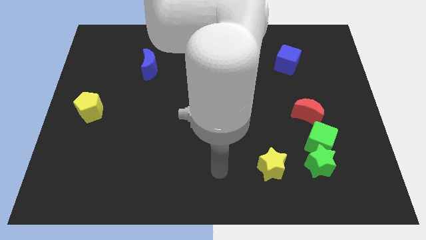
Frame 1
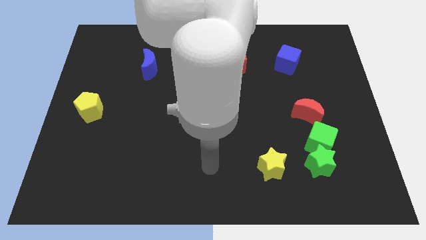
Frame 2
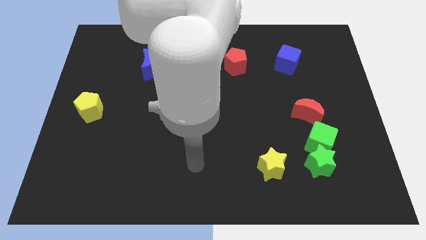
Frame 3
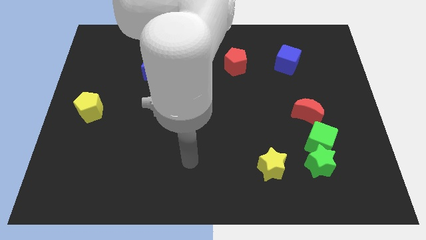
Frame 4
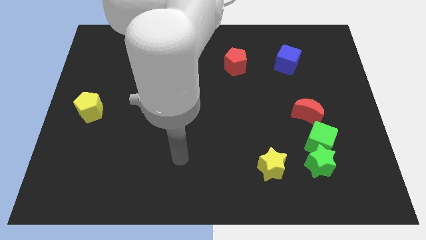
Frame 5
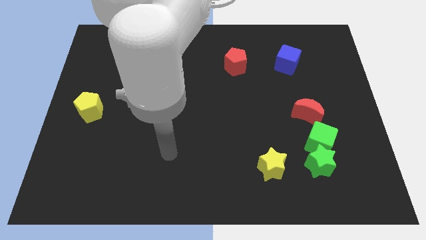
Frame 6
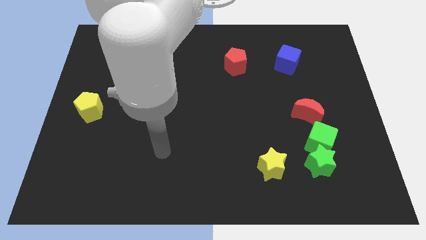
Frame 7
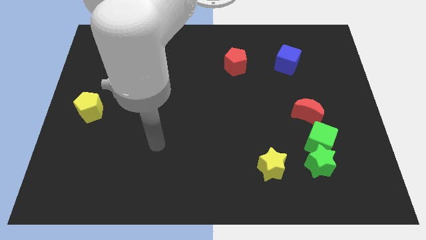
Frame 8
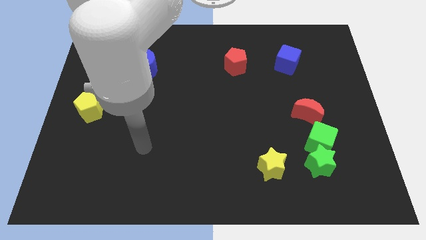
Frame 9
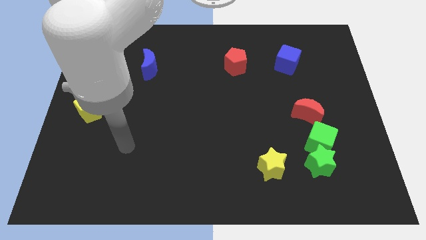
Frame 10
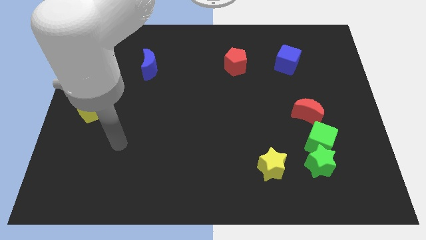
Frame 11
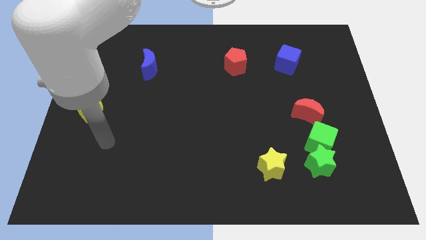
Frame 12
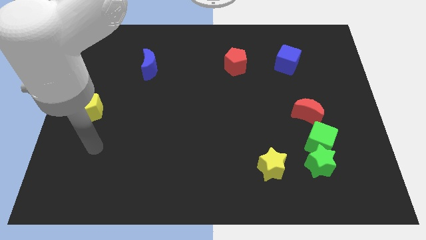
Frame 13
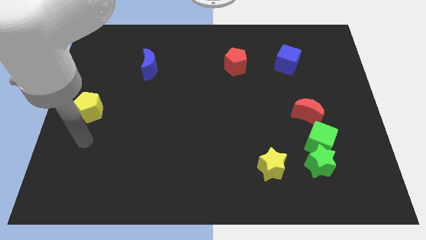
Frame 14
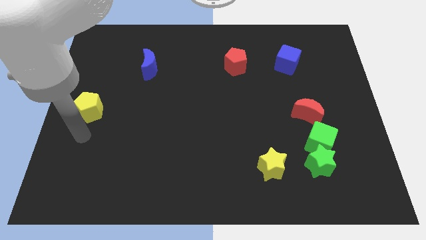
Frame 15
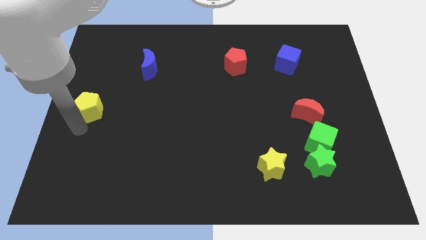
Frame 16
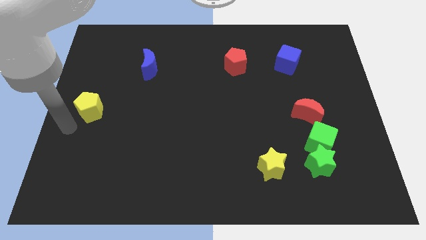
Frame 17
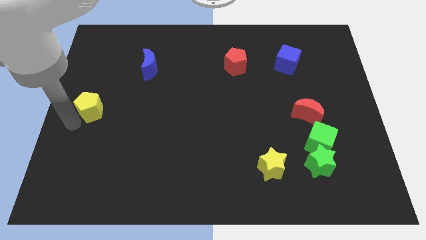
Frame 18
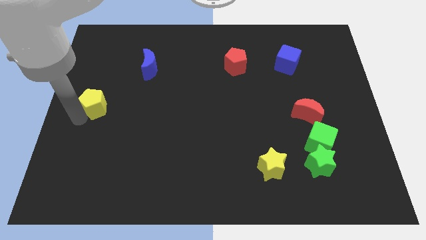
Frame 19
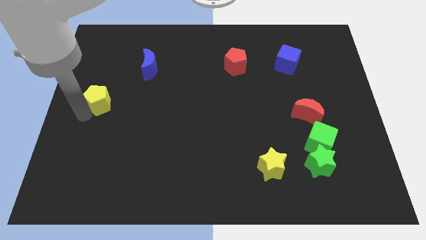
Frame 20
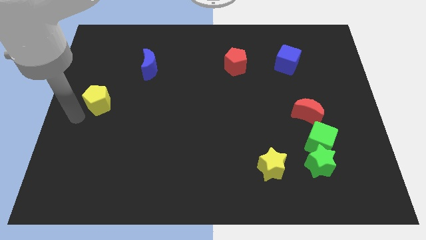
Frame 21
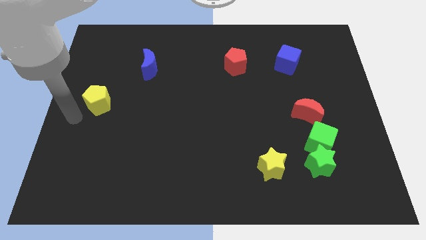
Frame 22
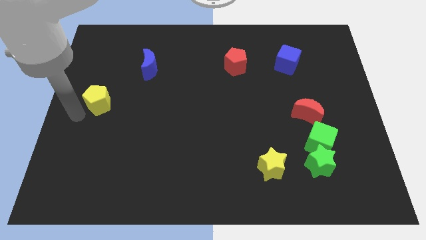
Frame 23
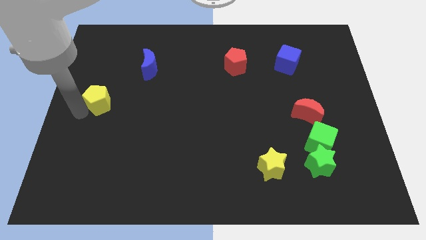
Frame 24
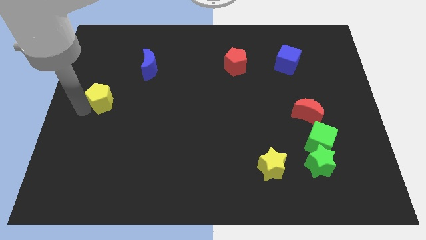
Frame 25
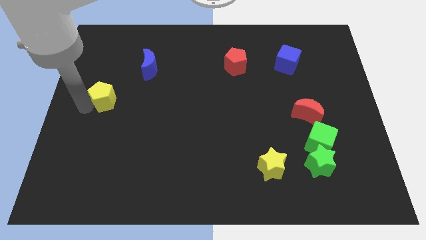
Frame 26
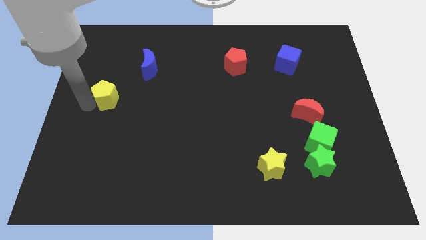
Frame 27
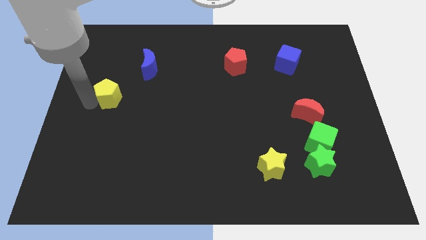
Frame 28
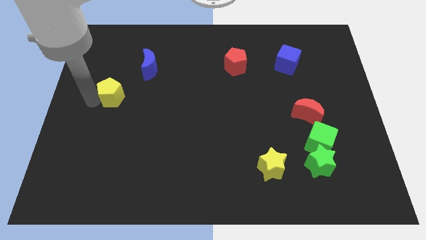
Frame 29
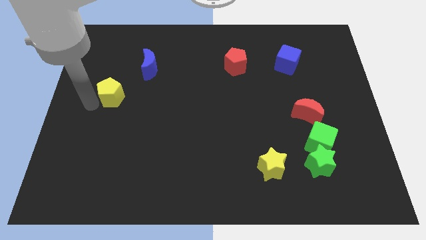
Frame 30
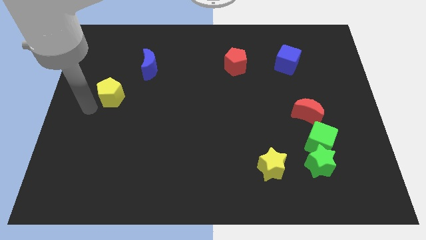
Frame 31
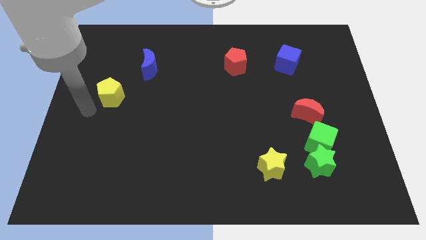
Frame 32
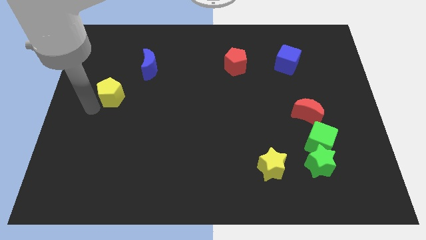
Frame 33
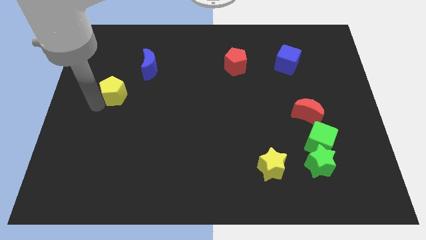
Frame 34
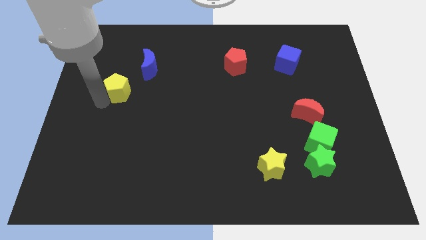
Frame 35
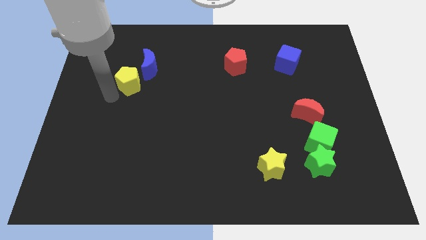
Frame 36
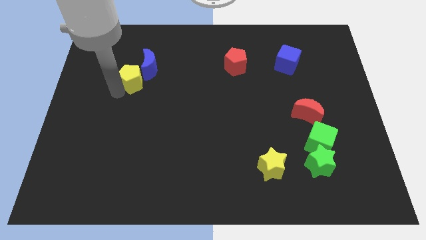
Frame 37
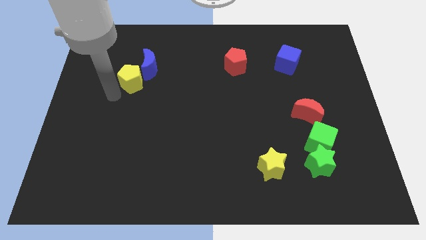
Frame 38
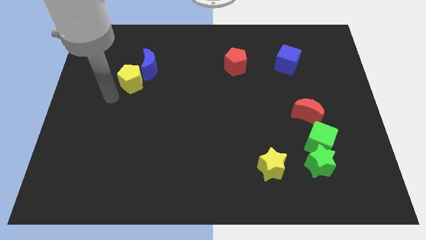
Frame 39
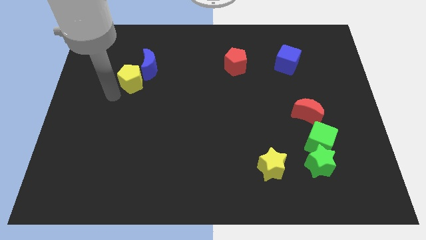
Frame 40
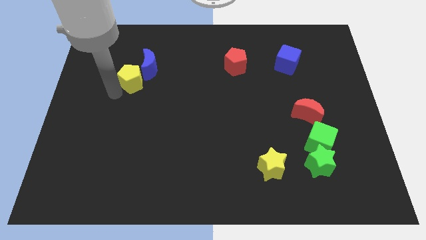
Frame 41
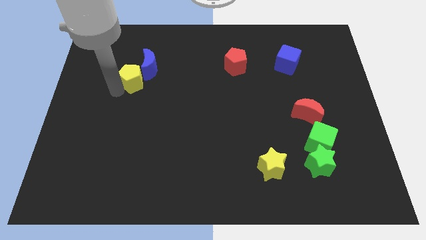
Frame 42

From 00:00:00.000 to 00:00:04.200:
put the yellow pentagon to the blue moon

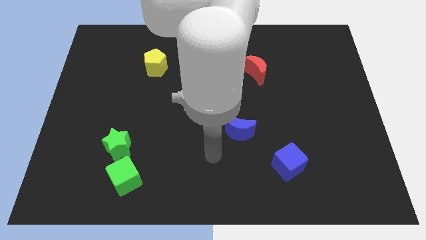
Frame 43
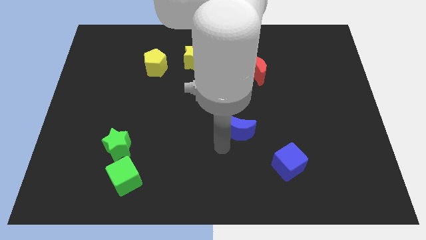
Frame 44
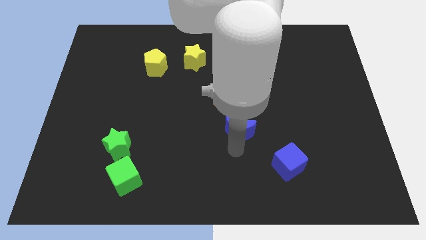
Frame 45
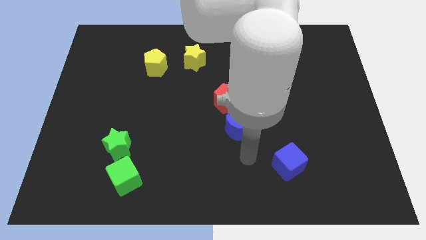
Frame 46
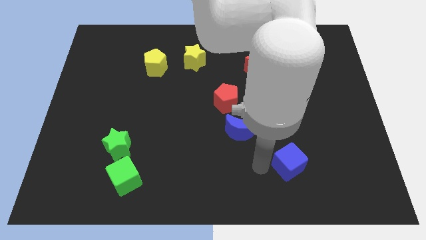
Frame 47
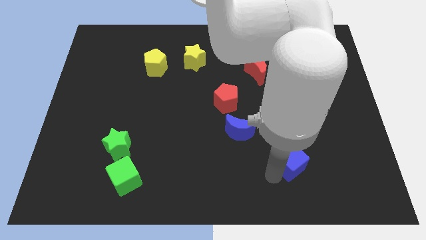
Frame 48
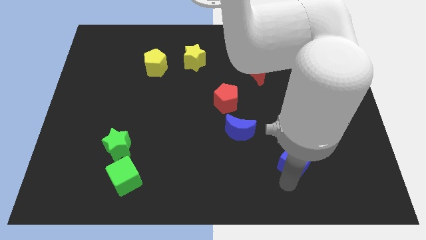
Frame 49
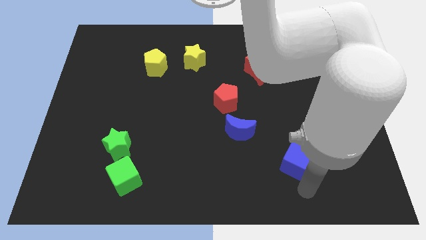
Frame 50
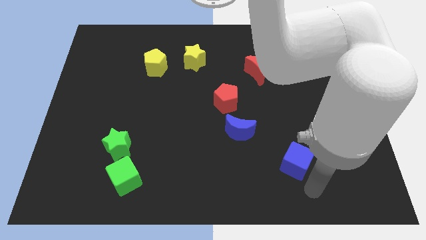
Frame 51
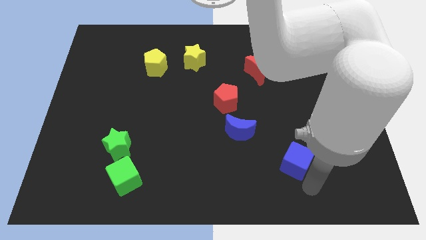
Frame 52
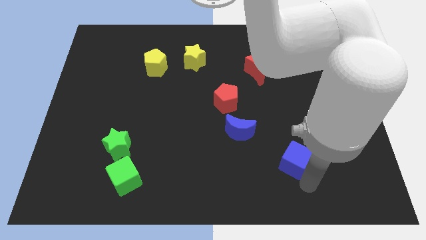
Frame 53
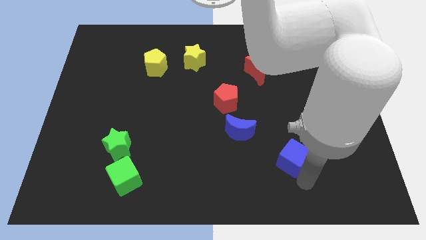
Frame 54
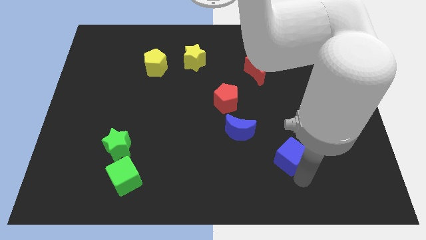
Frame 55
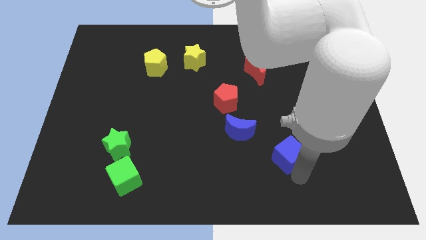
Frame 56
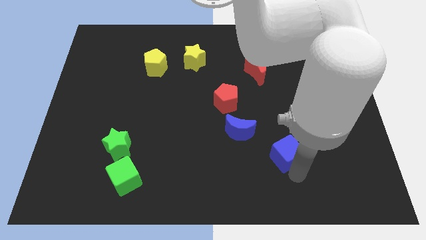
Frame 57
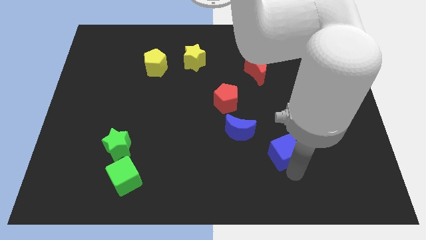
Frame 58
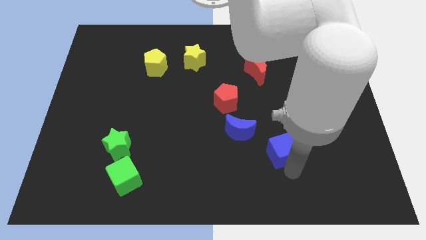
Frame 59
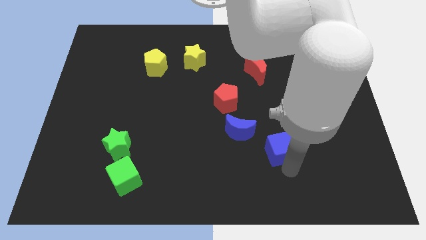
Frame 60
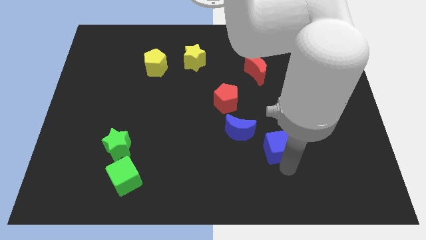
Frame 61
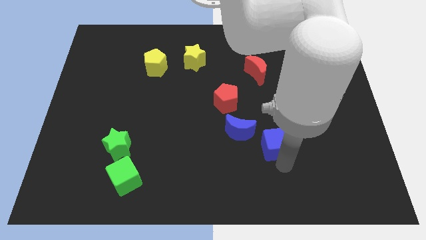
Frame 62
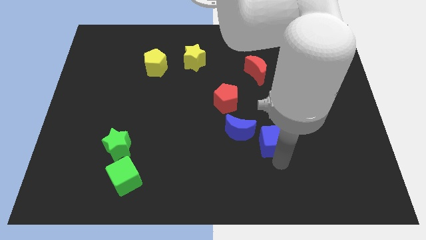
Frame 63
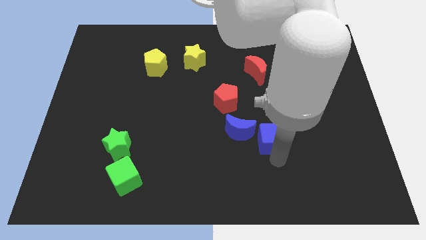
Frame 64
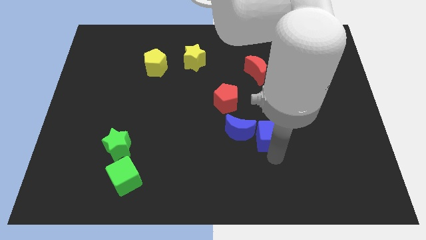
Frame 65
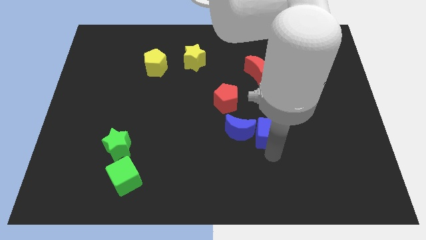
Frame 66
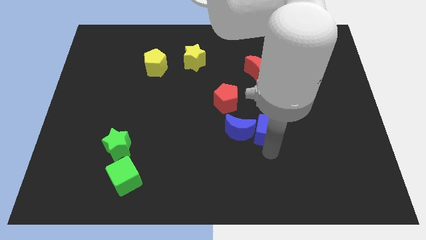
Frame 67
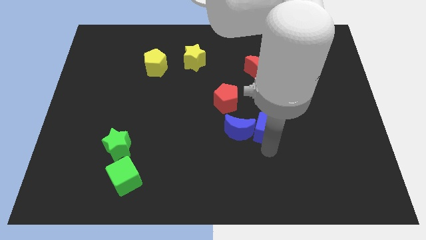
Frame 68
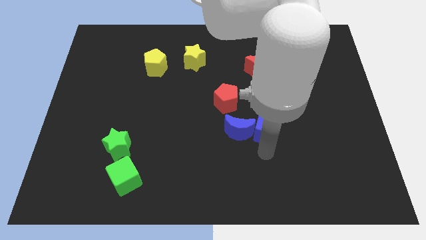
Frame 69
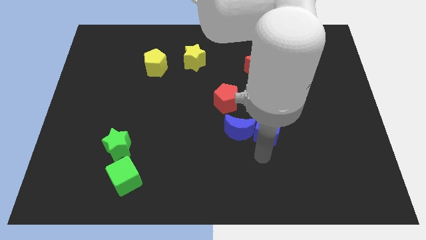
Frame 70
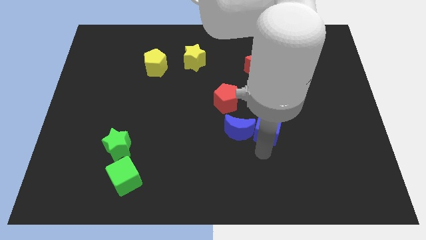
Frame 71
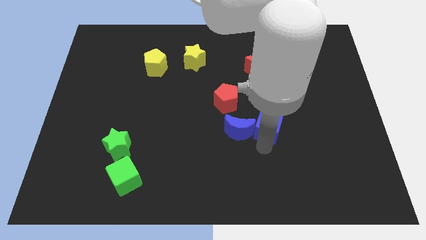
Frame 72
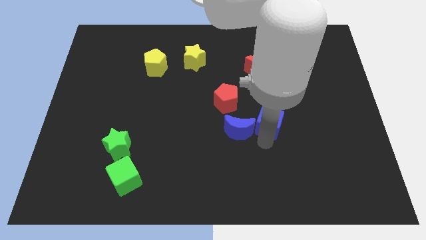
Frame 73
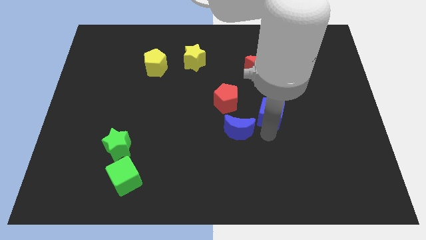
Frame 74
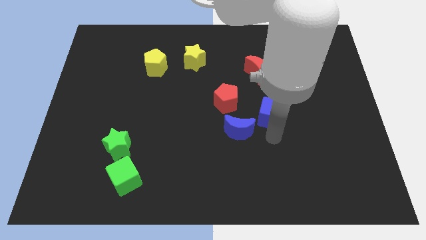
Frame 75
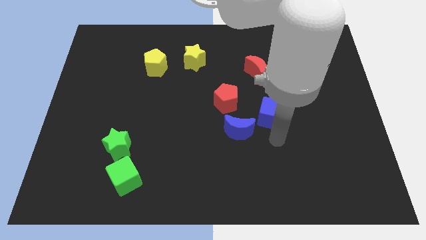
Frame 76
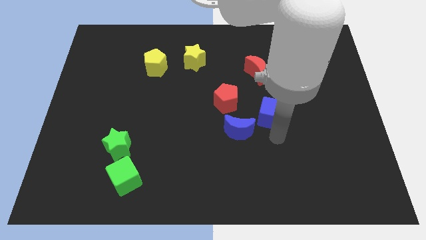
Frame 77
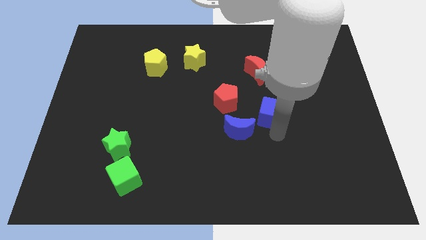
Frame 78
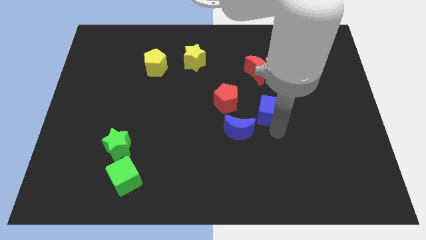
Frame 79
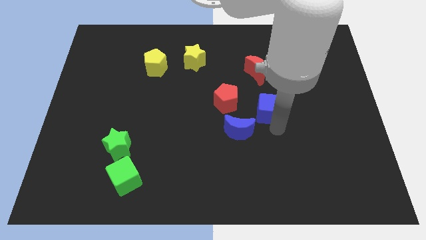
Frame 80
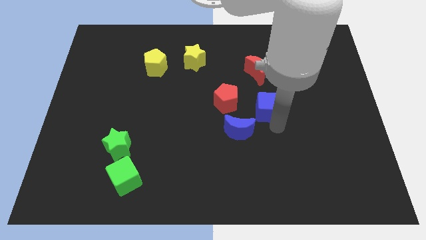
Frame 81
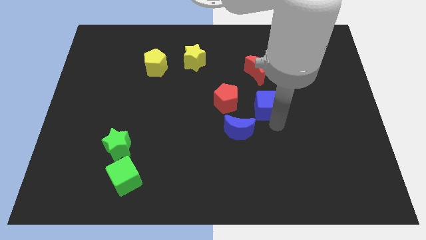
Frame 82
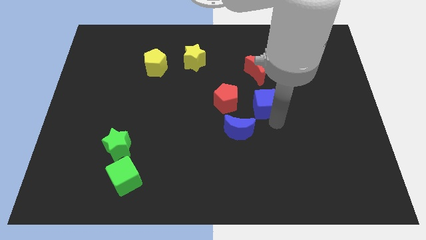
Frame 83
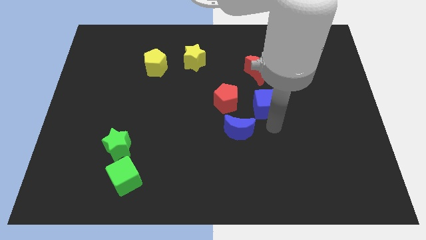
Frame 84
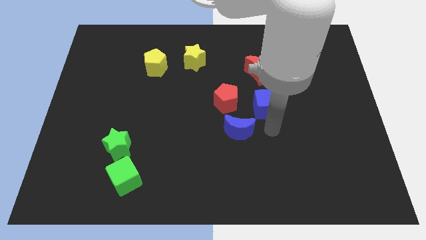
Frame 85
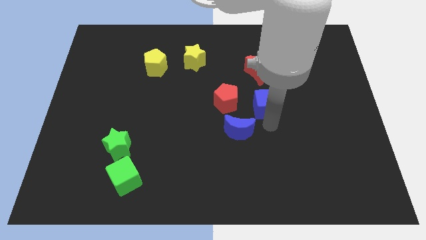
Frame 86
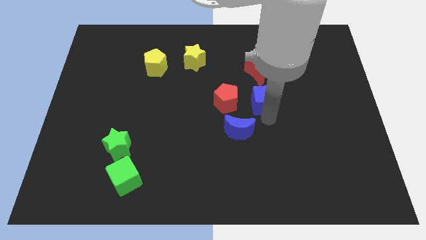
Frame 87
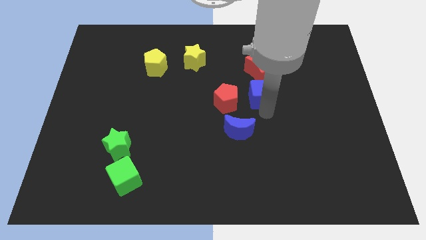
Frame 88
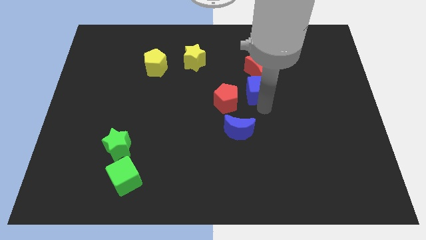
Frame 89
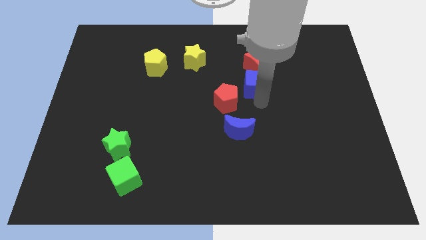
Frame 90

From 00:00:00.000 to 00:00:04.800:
put the blue cube next to the red moon
